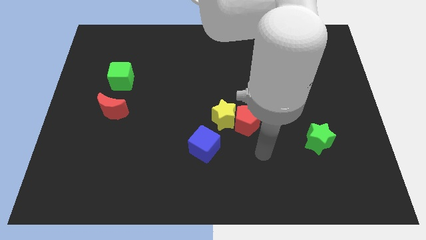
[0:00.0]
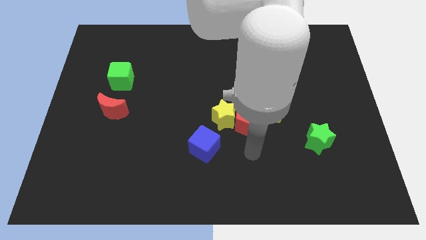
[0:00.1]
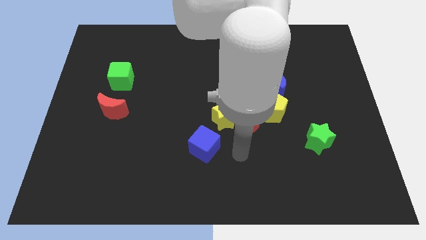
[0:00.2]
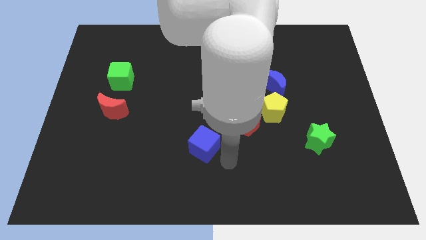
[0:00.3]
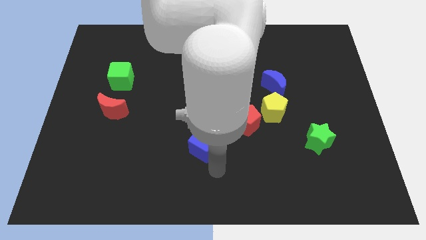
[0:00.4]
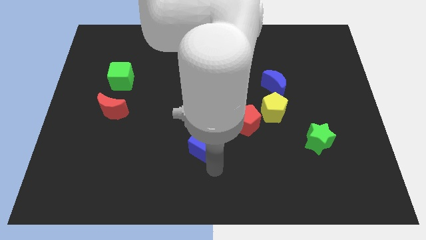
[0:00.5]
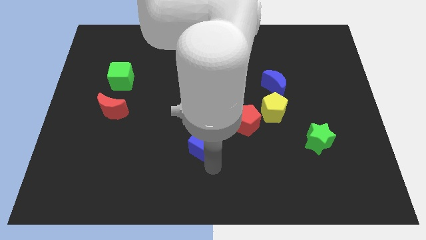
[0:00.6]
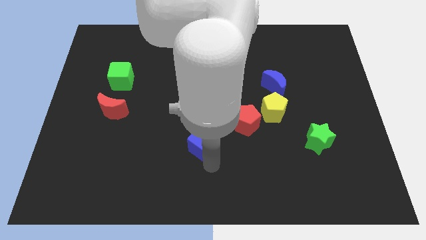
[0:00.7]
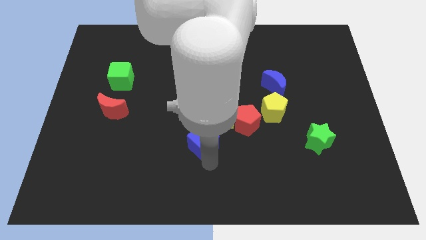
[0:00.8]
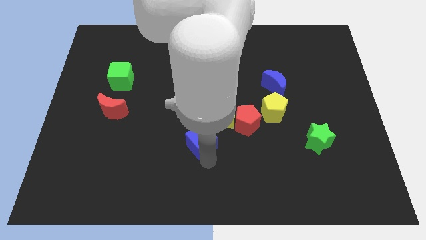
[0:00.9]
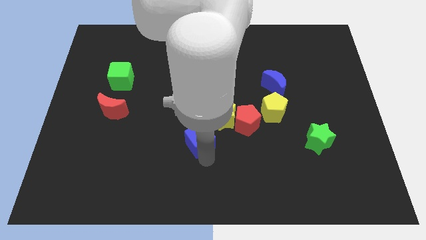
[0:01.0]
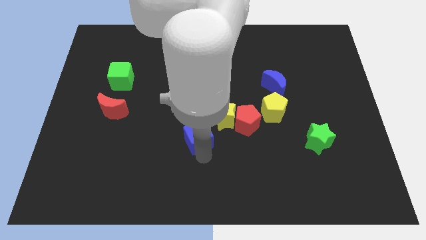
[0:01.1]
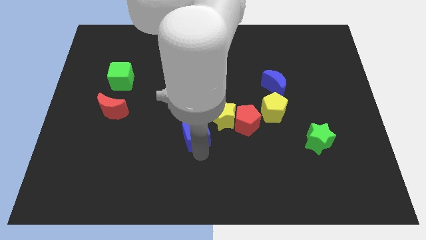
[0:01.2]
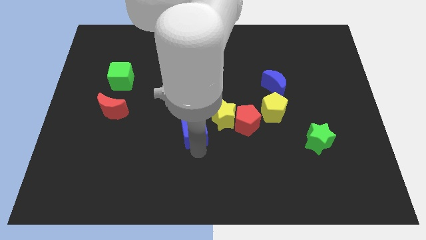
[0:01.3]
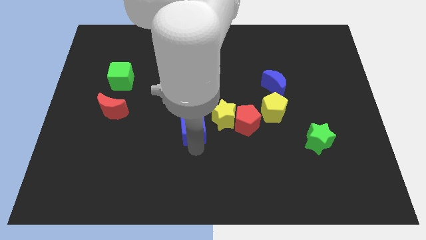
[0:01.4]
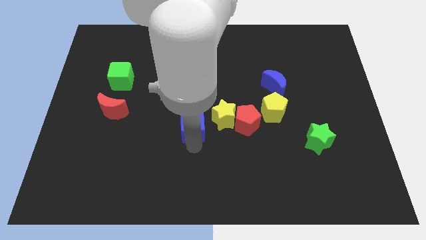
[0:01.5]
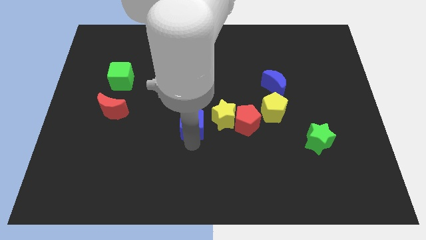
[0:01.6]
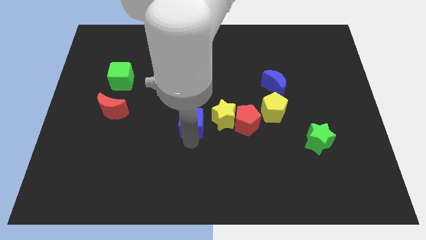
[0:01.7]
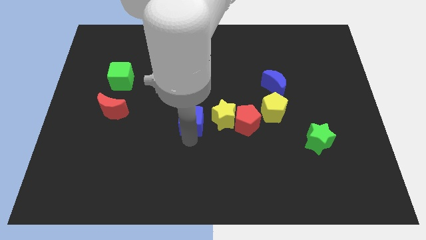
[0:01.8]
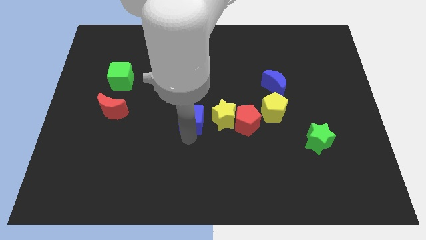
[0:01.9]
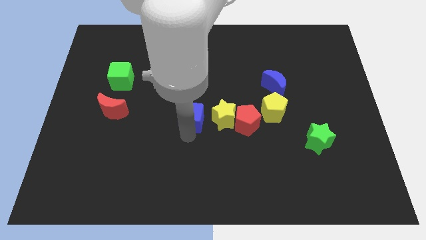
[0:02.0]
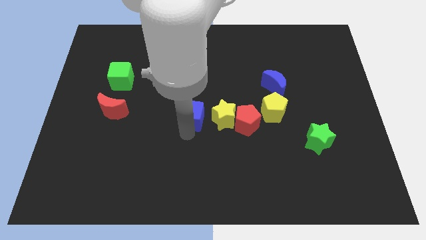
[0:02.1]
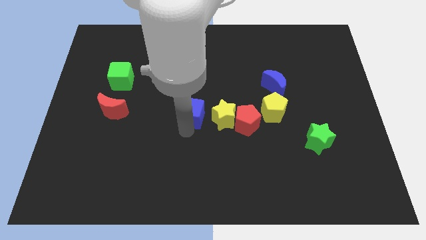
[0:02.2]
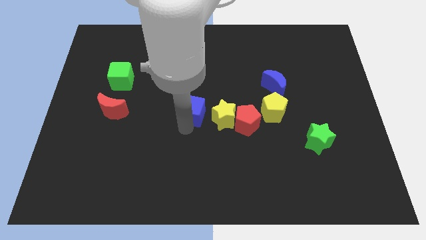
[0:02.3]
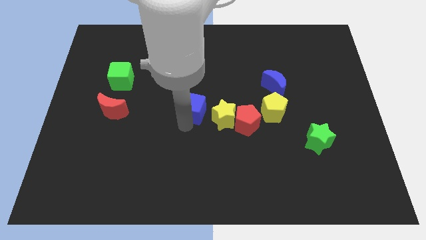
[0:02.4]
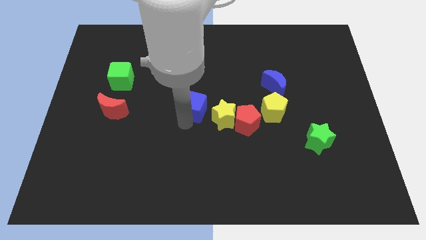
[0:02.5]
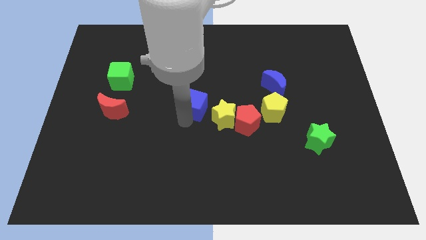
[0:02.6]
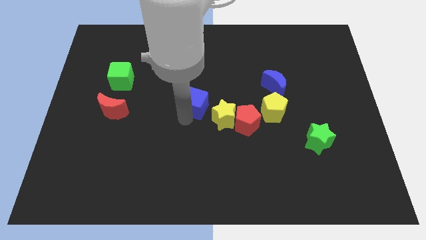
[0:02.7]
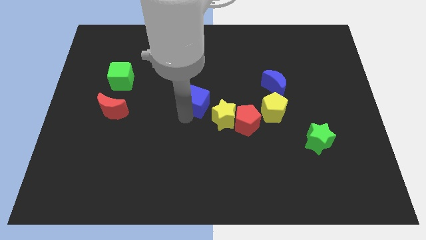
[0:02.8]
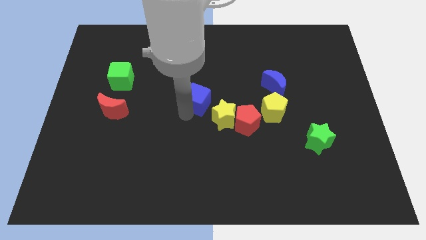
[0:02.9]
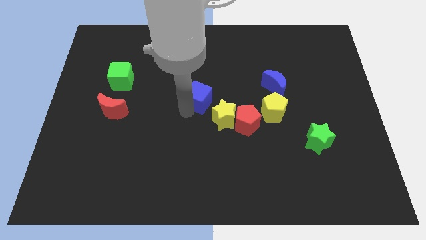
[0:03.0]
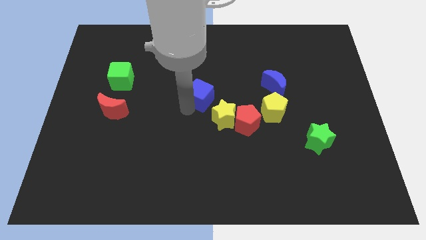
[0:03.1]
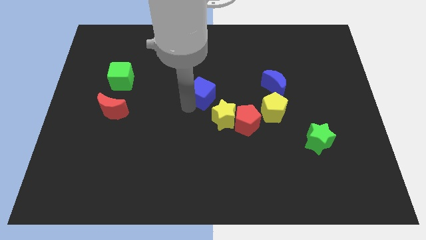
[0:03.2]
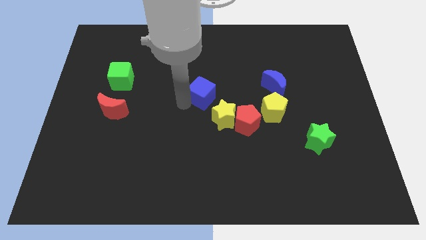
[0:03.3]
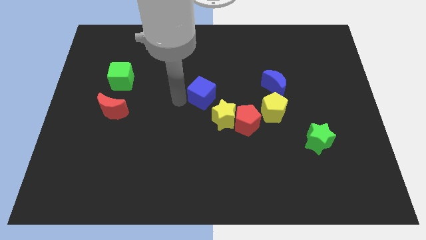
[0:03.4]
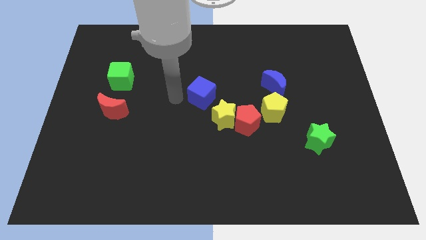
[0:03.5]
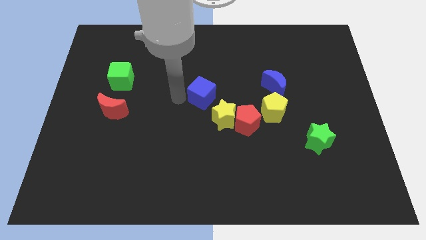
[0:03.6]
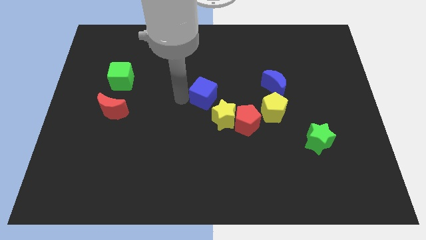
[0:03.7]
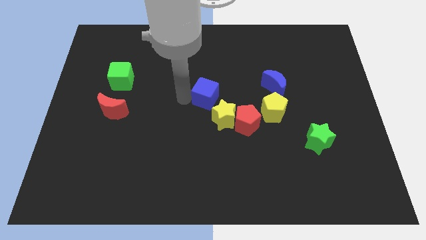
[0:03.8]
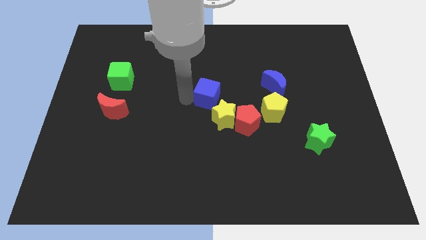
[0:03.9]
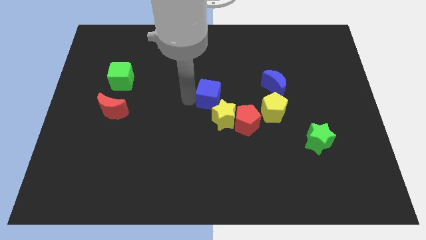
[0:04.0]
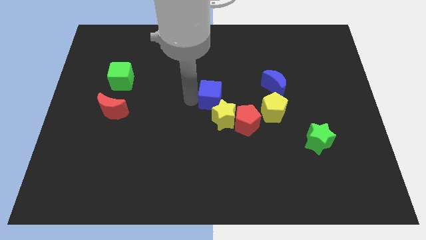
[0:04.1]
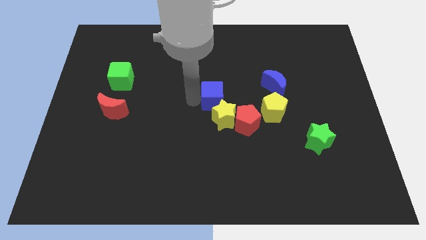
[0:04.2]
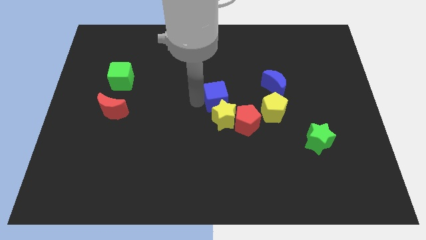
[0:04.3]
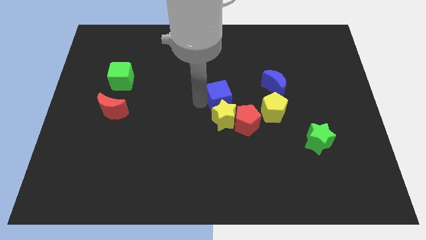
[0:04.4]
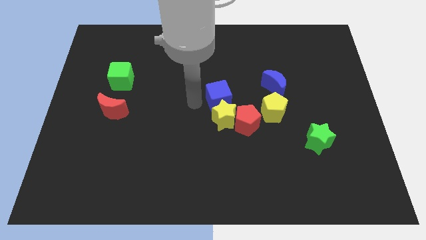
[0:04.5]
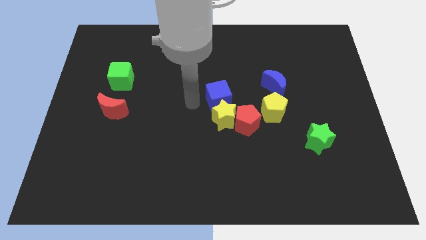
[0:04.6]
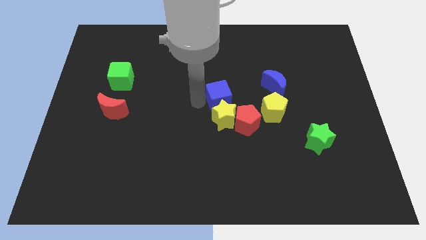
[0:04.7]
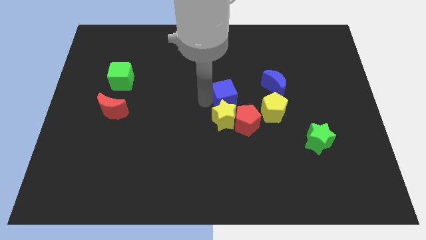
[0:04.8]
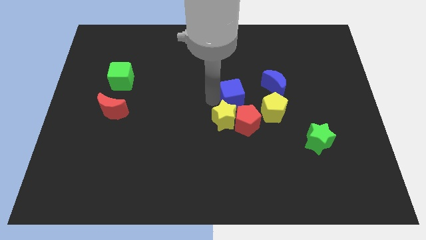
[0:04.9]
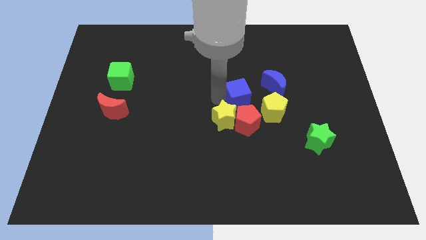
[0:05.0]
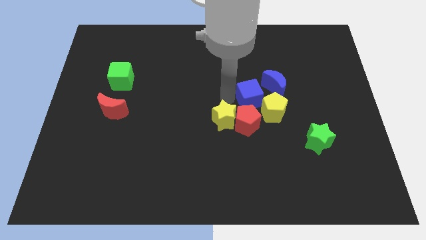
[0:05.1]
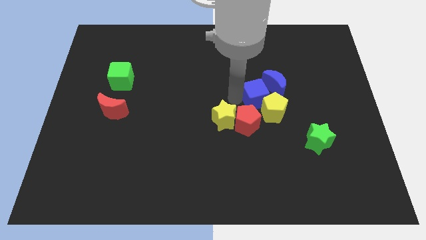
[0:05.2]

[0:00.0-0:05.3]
push the blue cube close to the blue moon

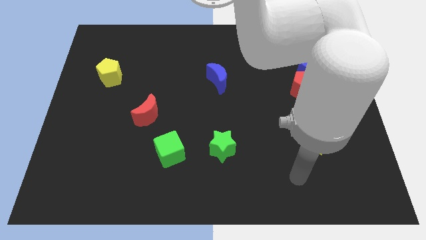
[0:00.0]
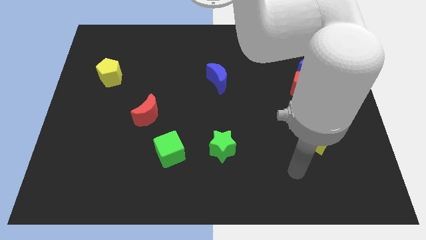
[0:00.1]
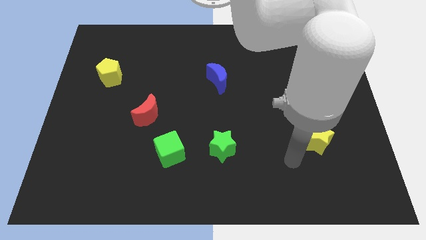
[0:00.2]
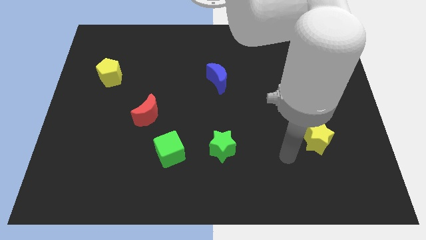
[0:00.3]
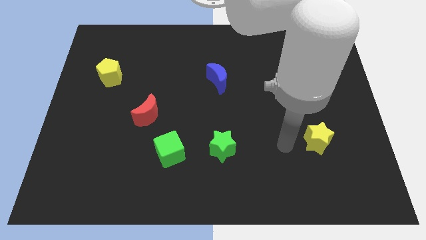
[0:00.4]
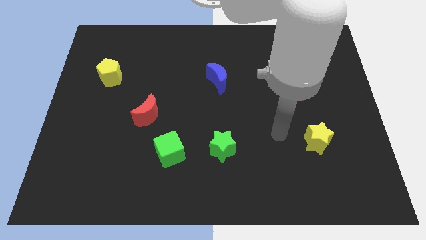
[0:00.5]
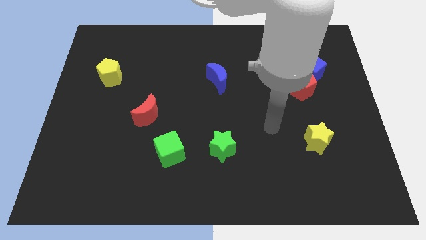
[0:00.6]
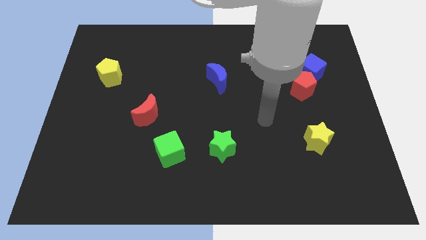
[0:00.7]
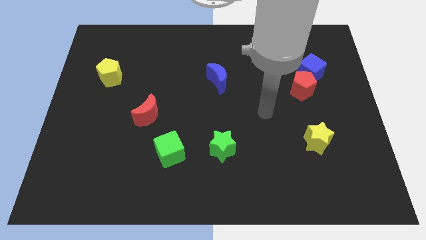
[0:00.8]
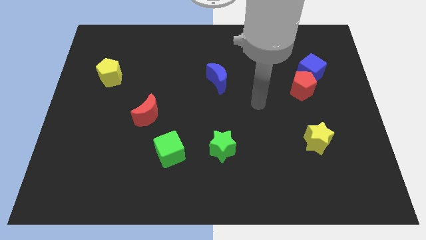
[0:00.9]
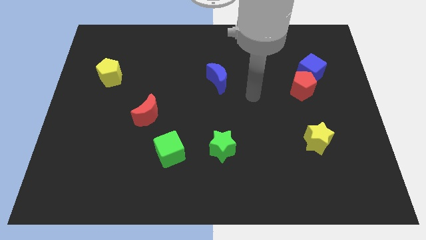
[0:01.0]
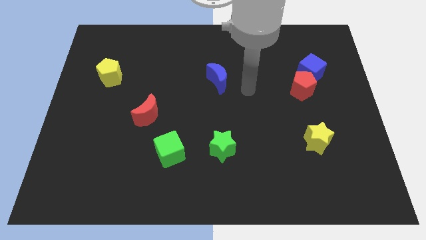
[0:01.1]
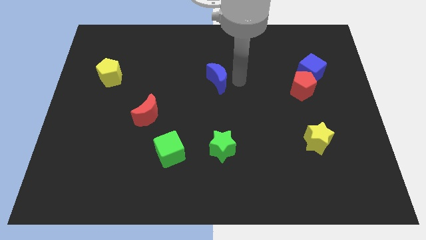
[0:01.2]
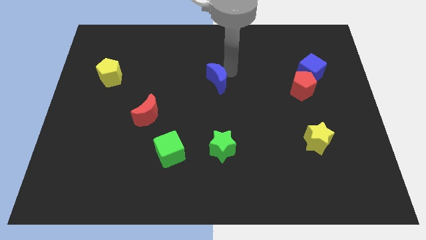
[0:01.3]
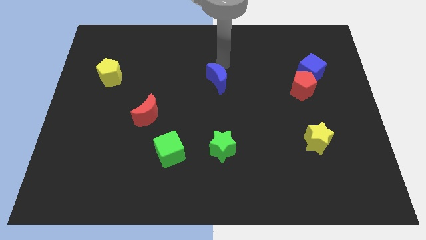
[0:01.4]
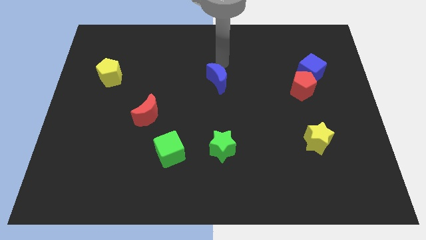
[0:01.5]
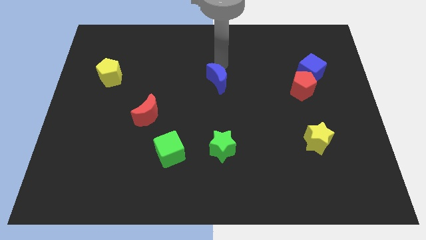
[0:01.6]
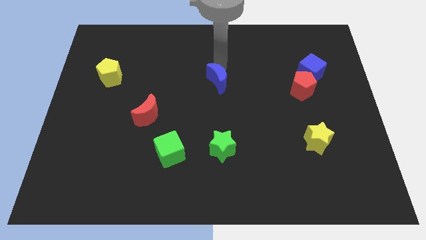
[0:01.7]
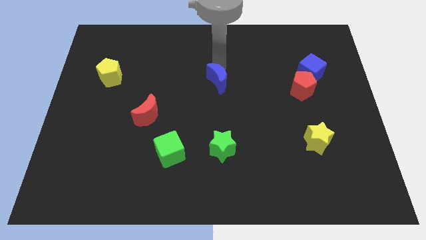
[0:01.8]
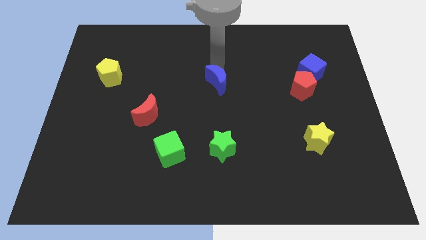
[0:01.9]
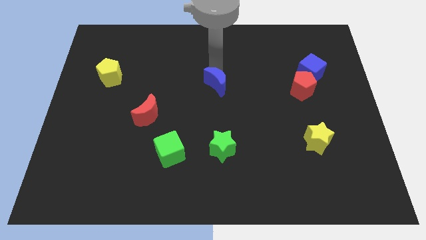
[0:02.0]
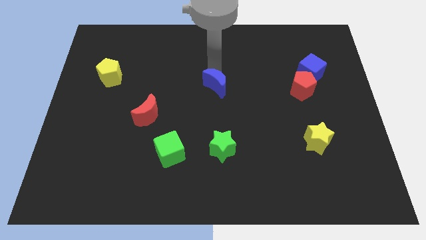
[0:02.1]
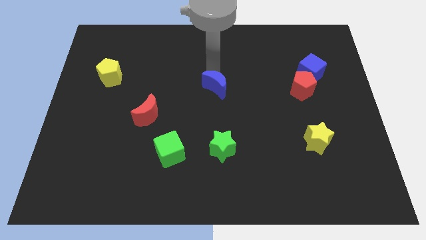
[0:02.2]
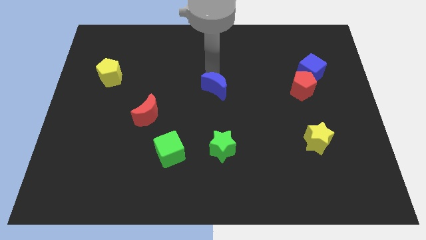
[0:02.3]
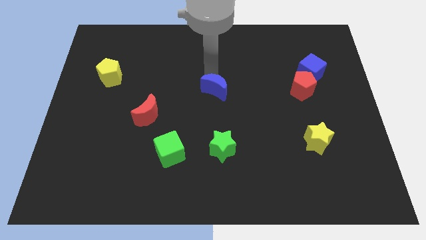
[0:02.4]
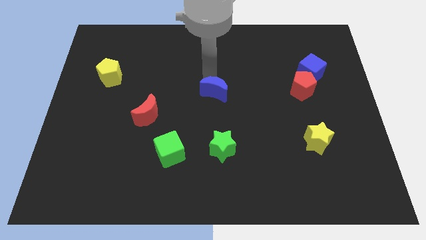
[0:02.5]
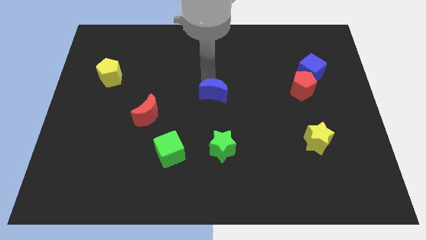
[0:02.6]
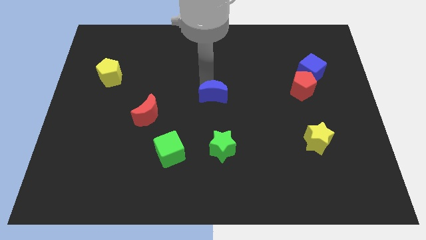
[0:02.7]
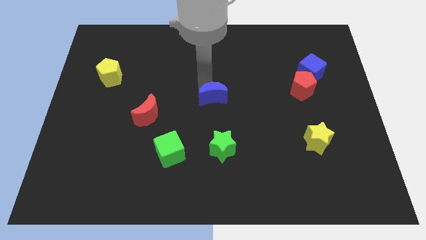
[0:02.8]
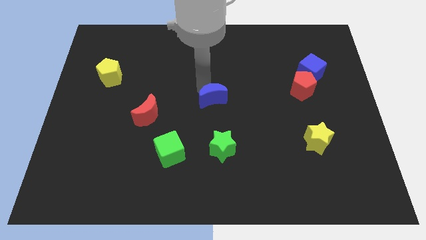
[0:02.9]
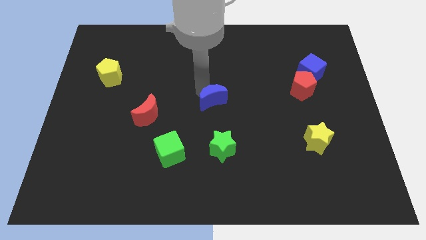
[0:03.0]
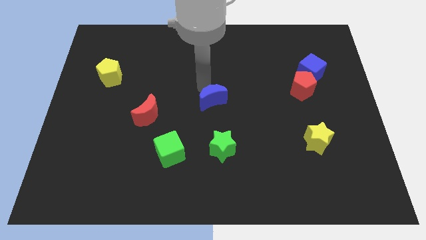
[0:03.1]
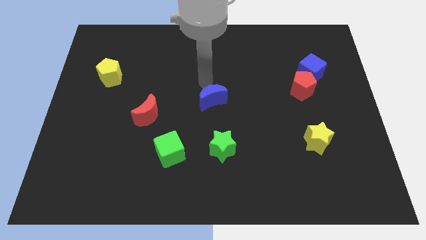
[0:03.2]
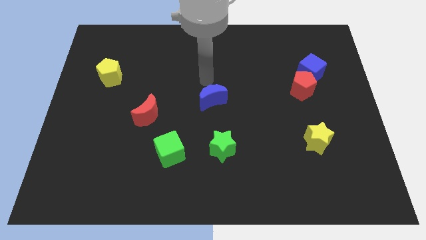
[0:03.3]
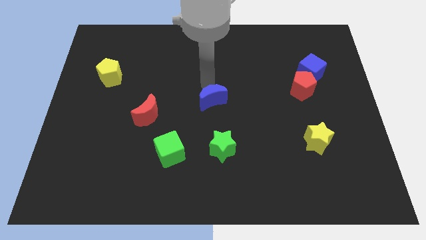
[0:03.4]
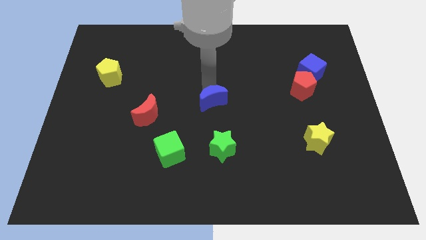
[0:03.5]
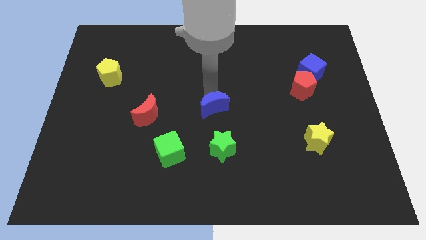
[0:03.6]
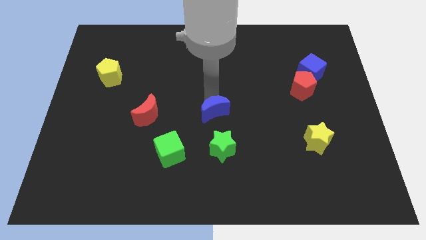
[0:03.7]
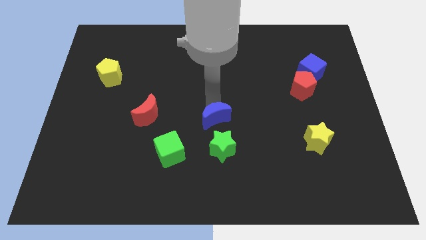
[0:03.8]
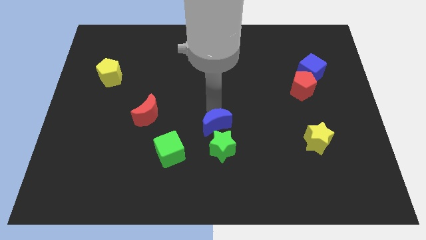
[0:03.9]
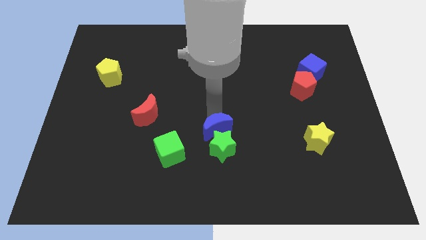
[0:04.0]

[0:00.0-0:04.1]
put the blue moon to the green star
